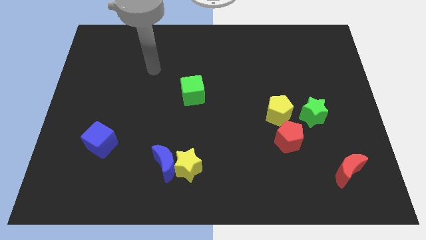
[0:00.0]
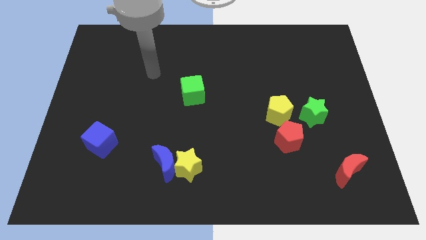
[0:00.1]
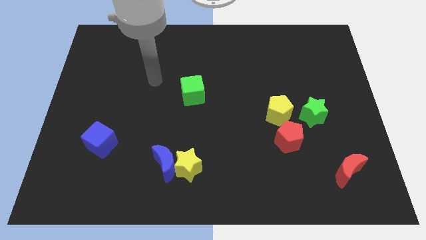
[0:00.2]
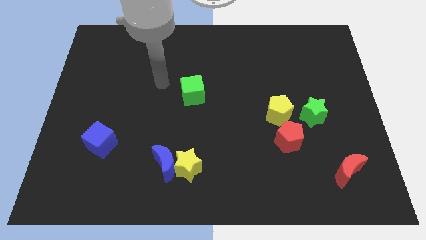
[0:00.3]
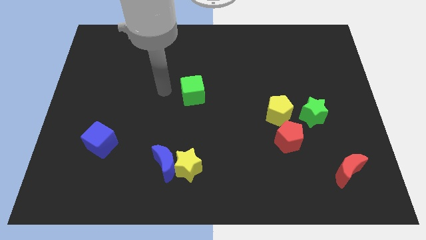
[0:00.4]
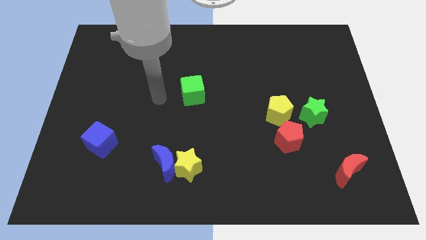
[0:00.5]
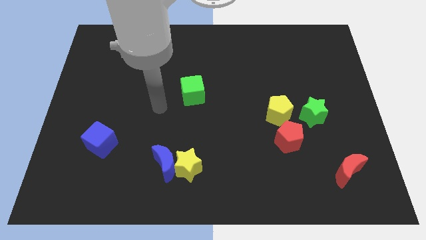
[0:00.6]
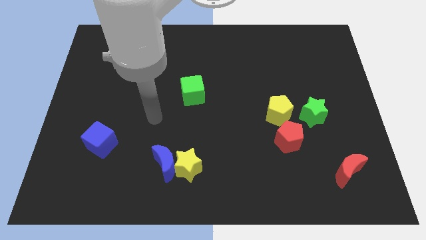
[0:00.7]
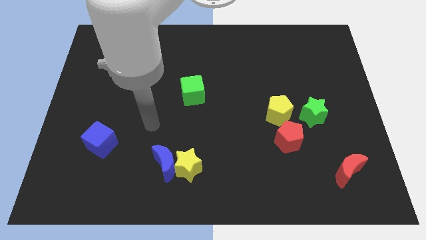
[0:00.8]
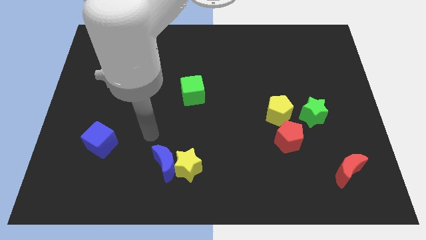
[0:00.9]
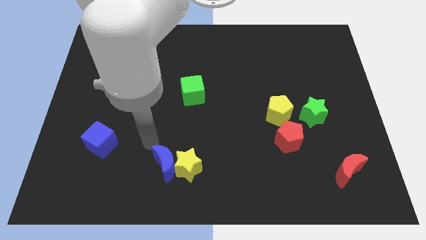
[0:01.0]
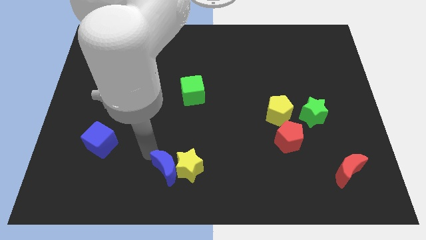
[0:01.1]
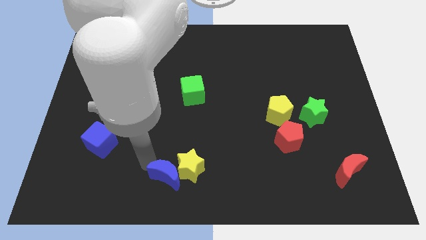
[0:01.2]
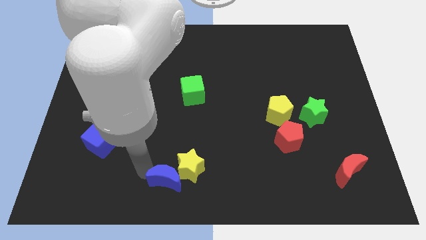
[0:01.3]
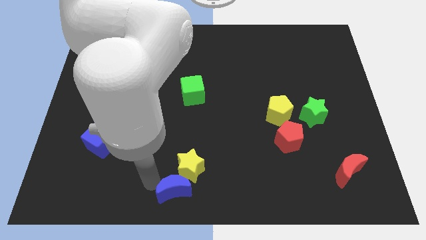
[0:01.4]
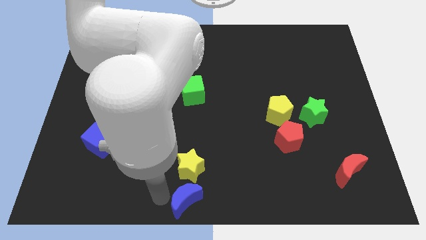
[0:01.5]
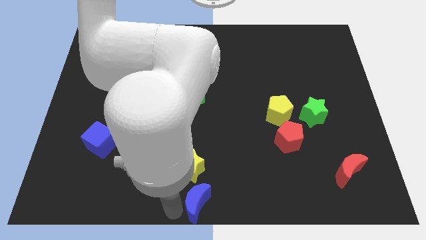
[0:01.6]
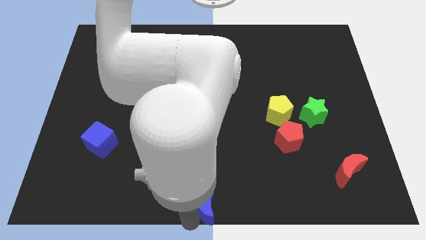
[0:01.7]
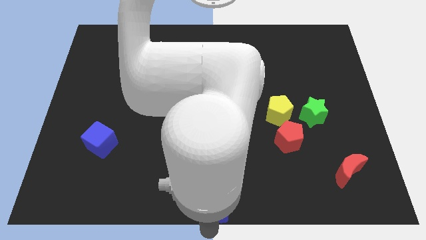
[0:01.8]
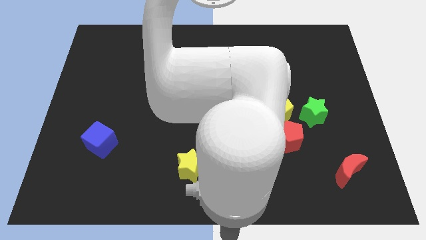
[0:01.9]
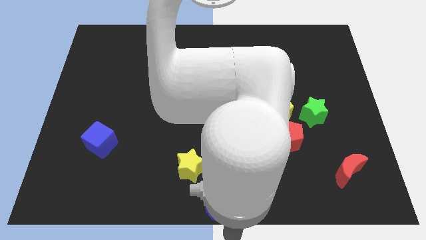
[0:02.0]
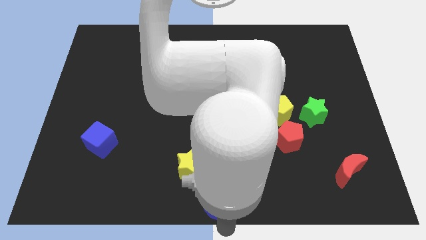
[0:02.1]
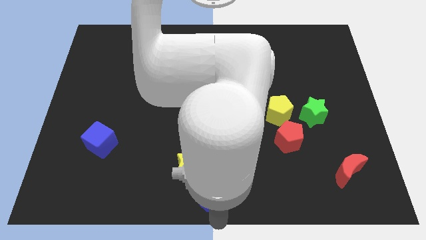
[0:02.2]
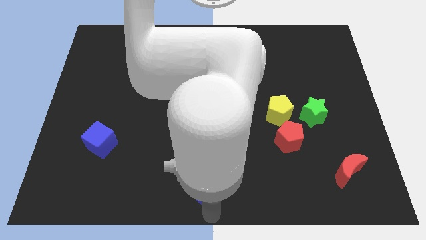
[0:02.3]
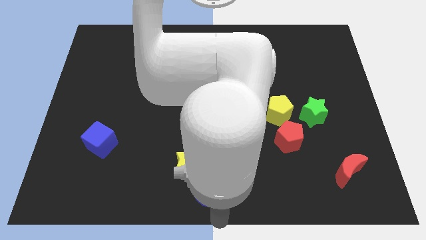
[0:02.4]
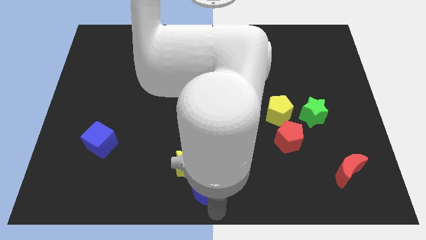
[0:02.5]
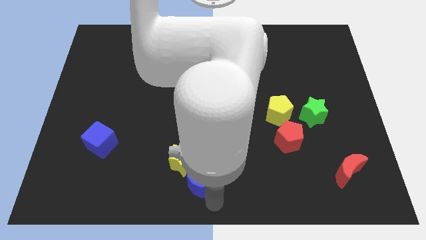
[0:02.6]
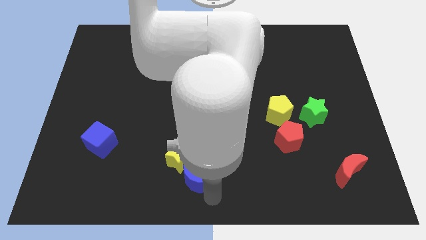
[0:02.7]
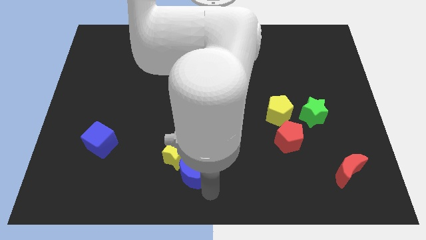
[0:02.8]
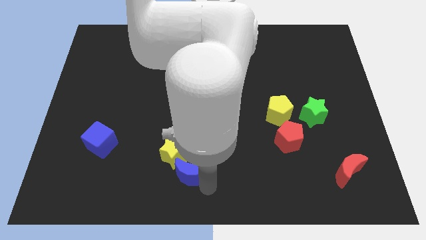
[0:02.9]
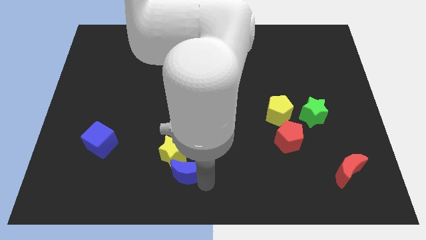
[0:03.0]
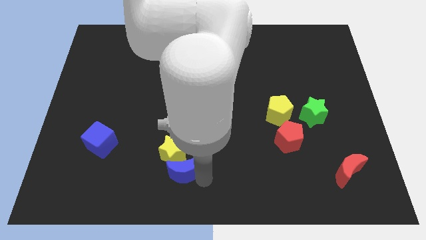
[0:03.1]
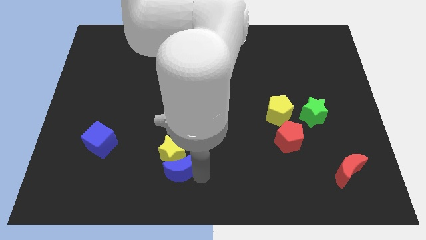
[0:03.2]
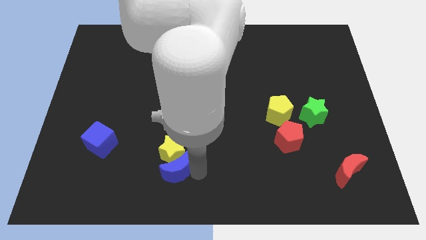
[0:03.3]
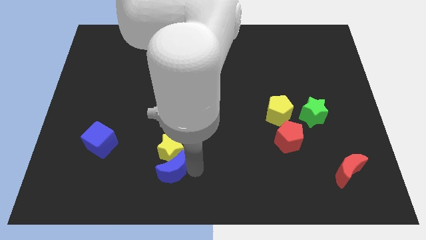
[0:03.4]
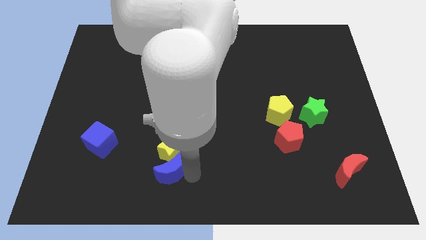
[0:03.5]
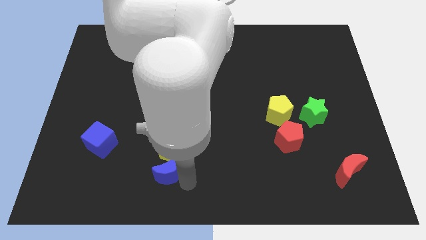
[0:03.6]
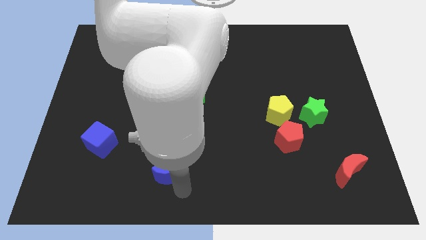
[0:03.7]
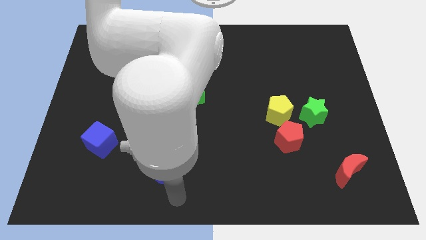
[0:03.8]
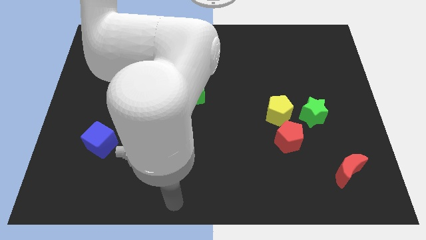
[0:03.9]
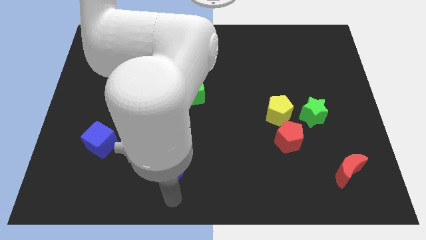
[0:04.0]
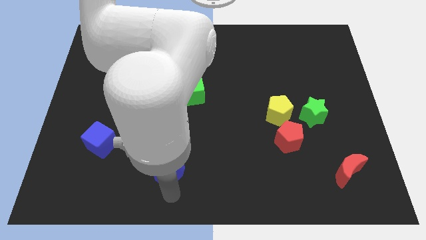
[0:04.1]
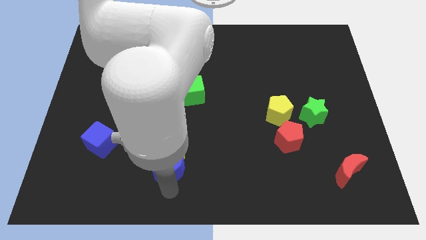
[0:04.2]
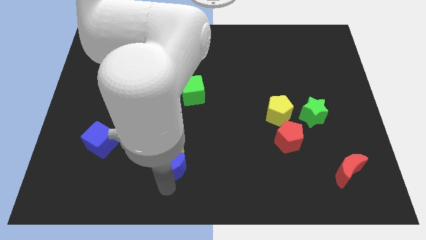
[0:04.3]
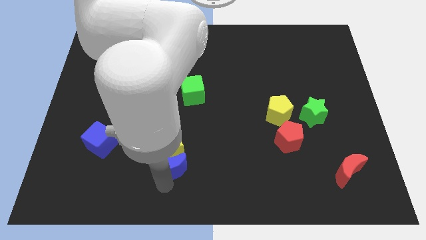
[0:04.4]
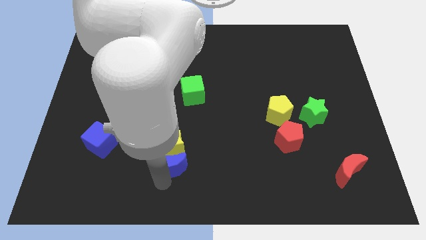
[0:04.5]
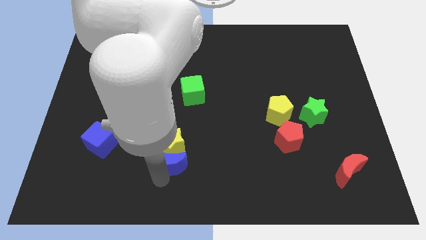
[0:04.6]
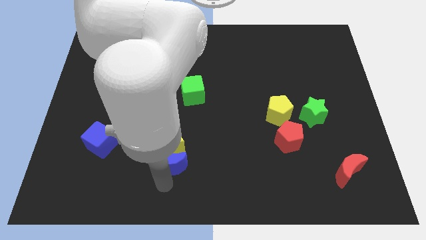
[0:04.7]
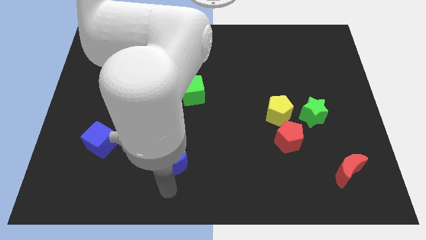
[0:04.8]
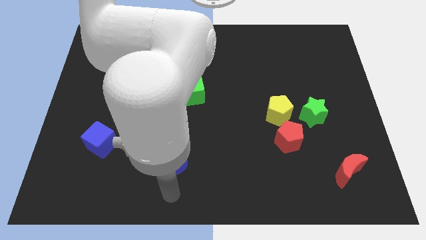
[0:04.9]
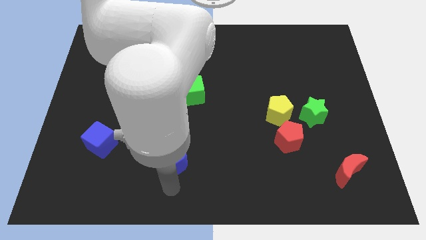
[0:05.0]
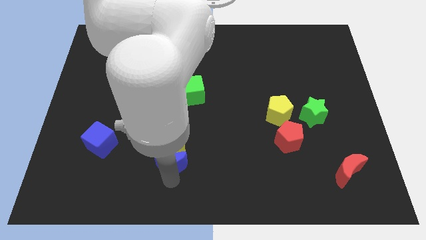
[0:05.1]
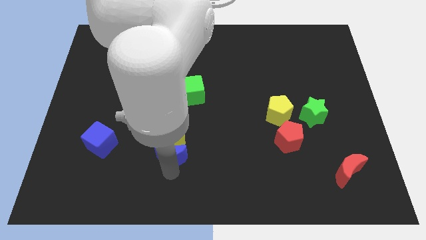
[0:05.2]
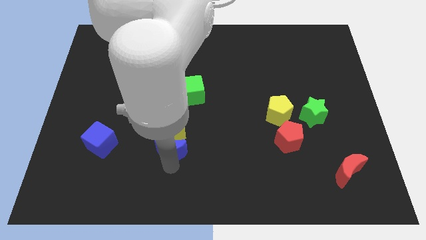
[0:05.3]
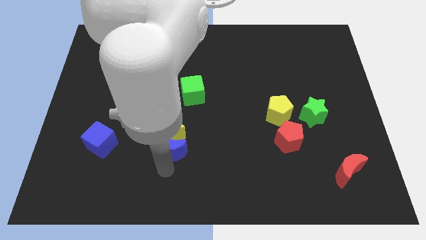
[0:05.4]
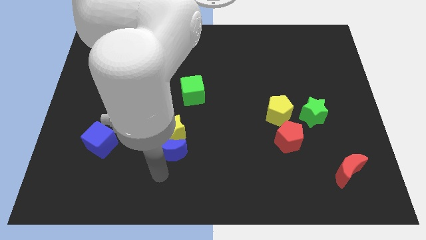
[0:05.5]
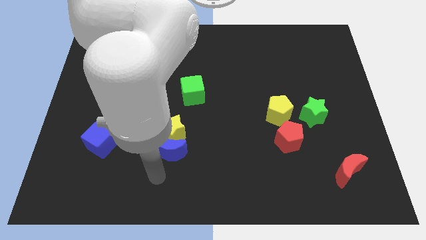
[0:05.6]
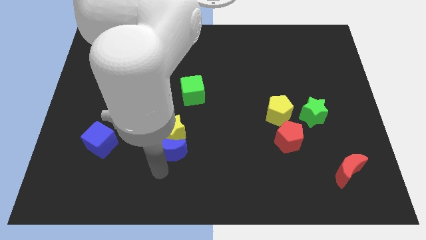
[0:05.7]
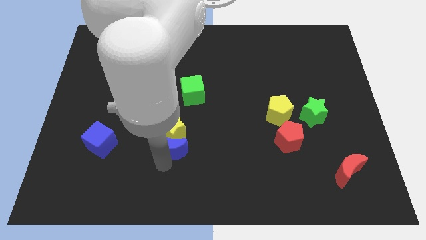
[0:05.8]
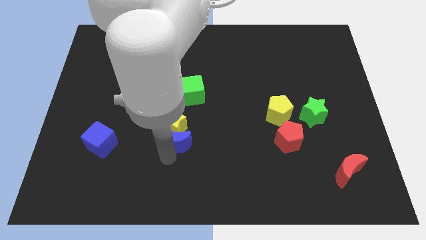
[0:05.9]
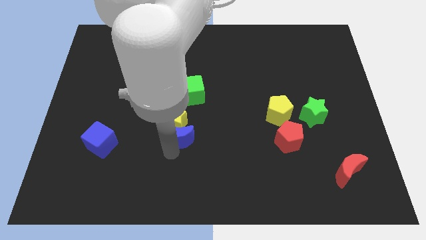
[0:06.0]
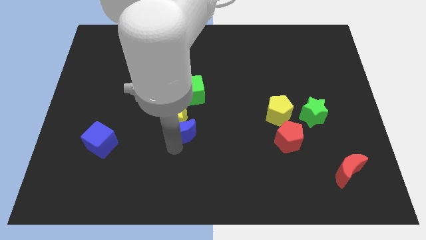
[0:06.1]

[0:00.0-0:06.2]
push the blue moon to the center of the board
